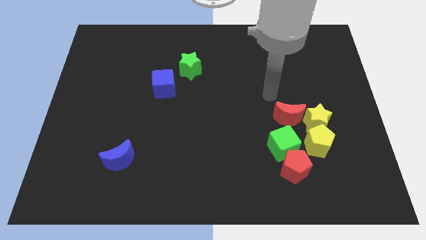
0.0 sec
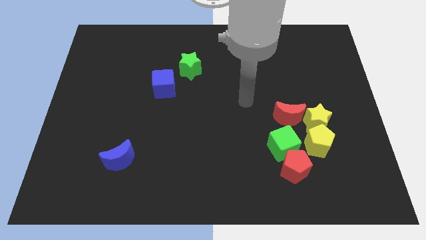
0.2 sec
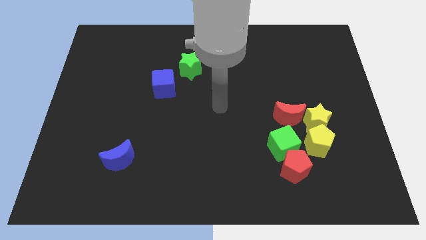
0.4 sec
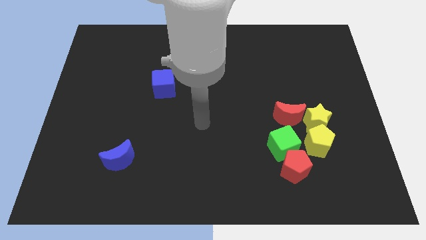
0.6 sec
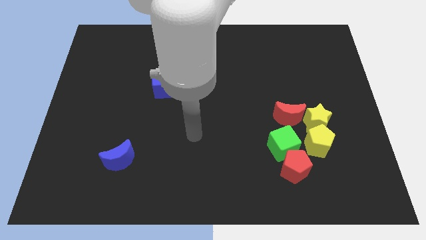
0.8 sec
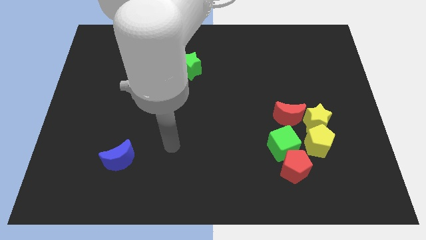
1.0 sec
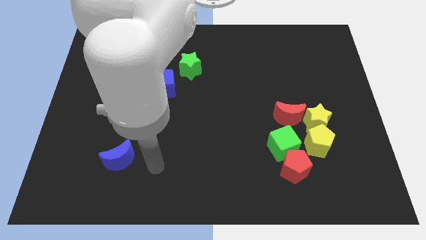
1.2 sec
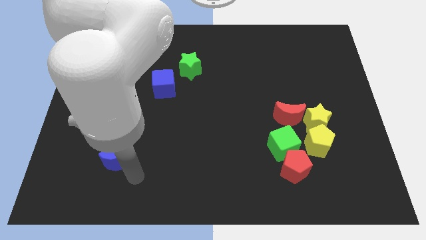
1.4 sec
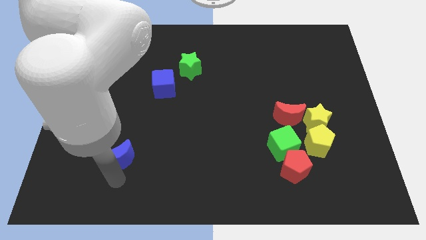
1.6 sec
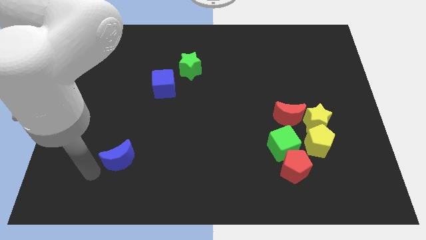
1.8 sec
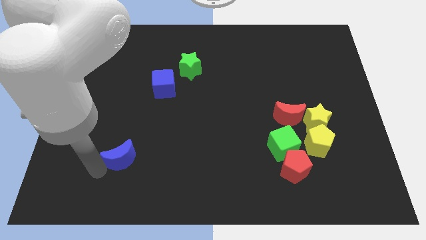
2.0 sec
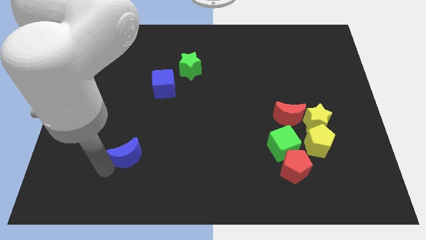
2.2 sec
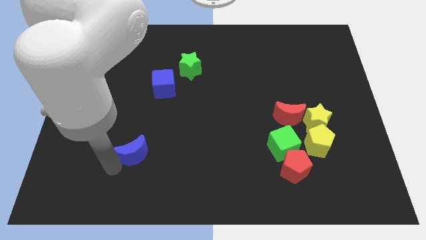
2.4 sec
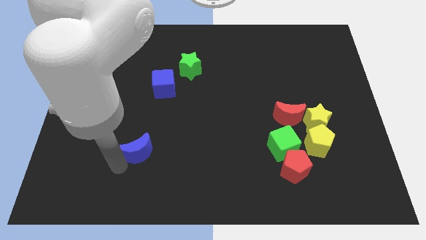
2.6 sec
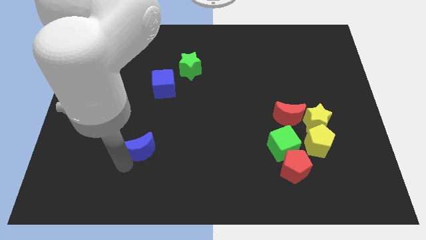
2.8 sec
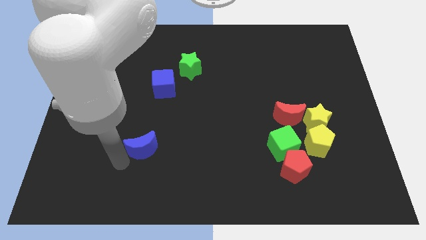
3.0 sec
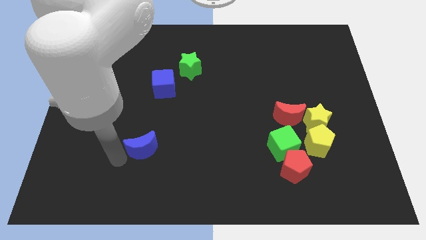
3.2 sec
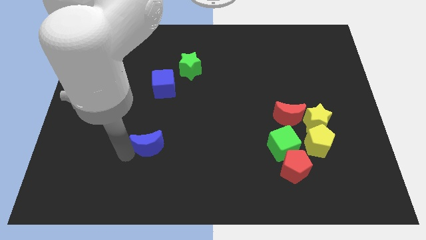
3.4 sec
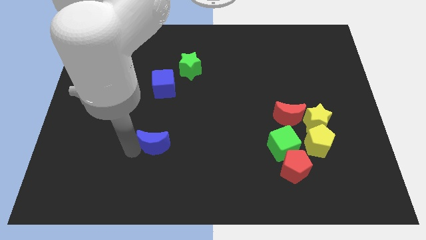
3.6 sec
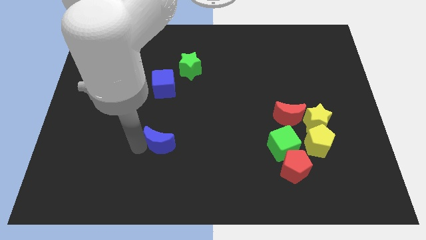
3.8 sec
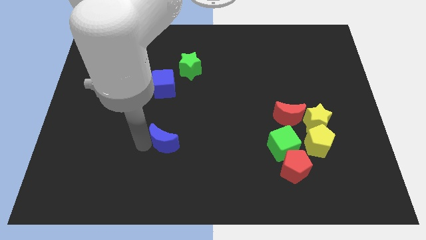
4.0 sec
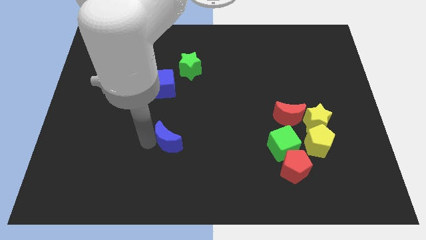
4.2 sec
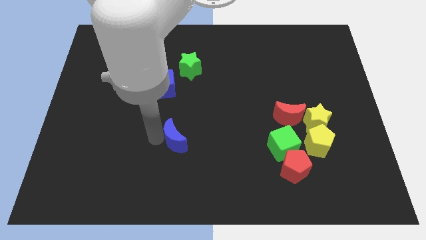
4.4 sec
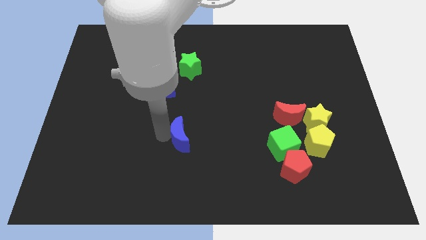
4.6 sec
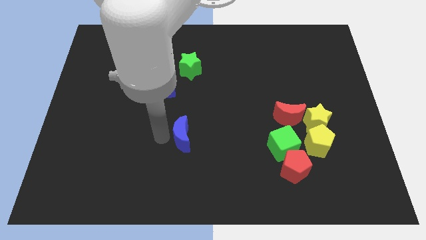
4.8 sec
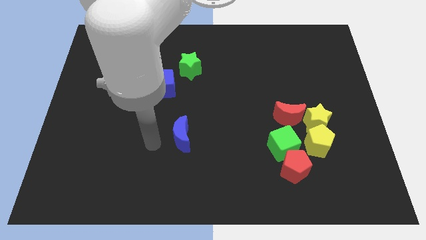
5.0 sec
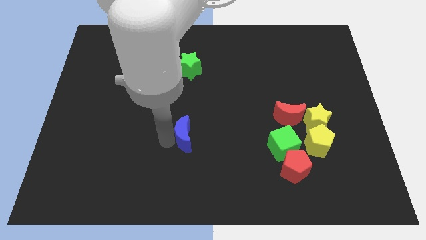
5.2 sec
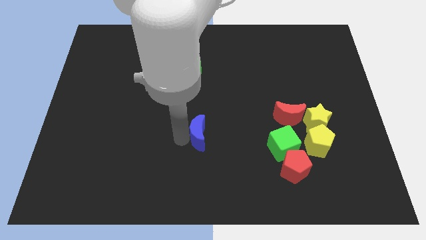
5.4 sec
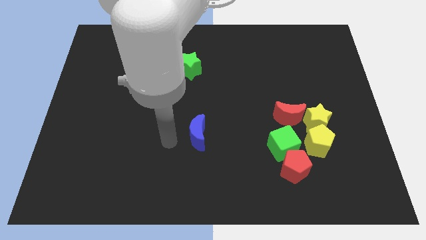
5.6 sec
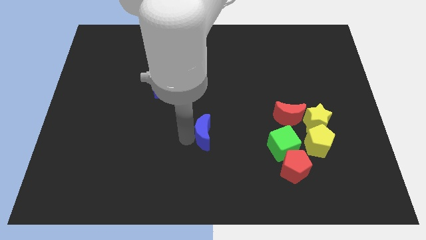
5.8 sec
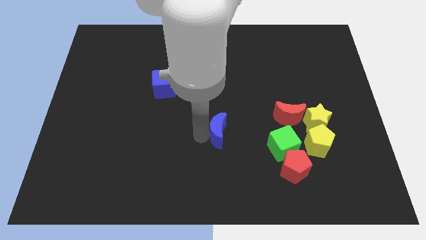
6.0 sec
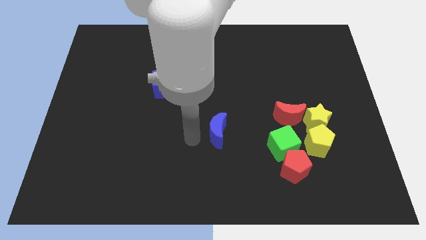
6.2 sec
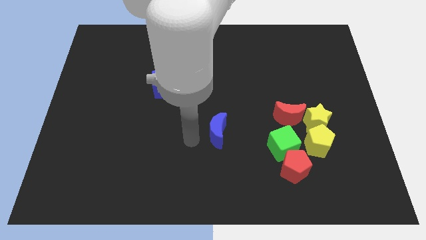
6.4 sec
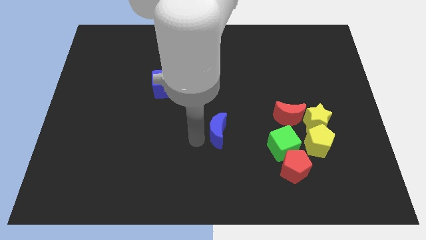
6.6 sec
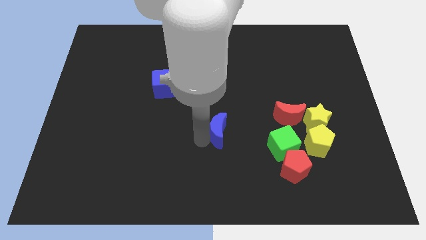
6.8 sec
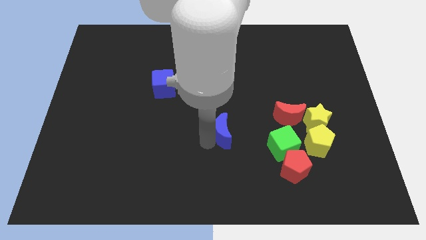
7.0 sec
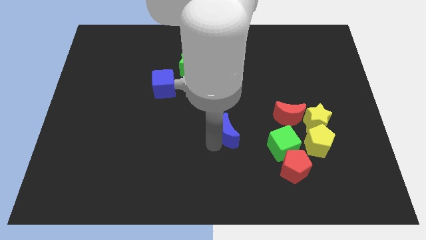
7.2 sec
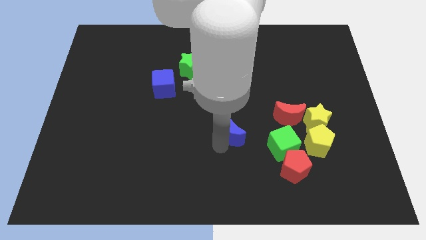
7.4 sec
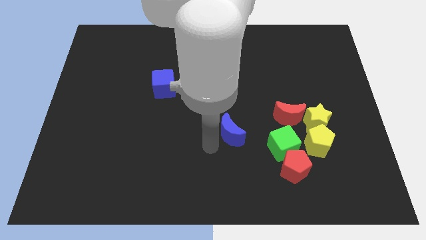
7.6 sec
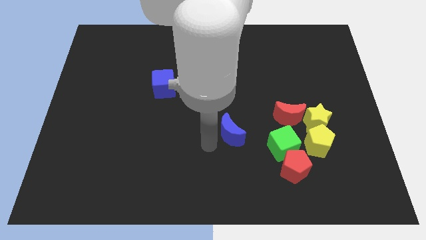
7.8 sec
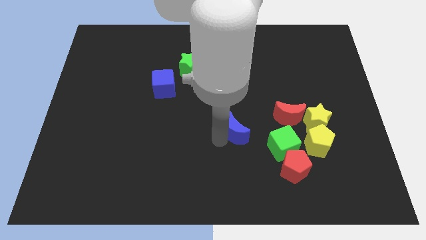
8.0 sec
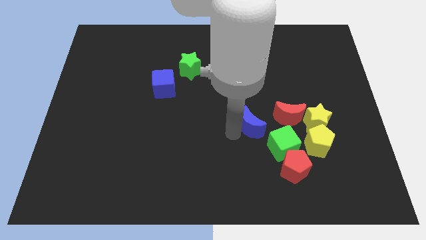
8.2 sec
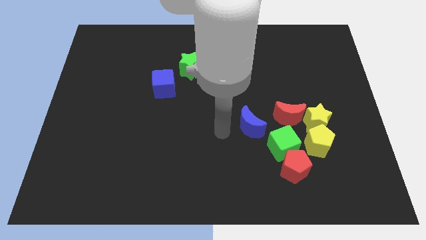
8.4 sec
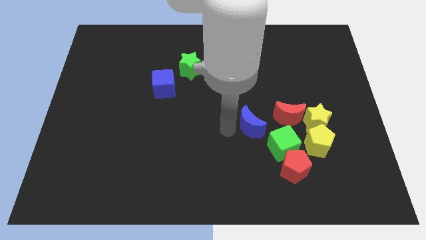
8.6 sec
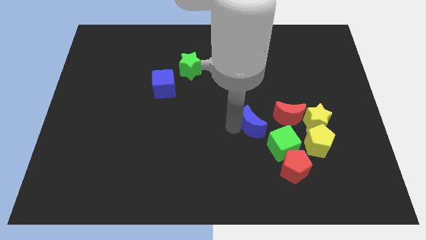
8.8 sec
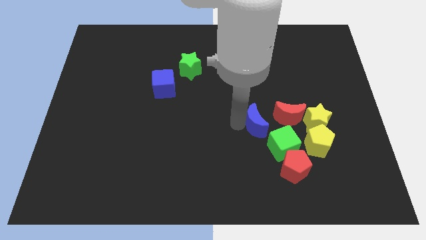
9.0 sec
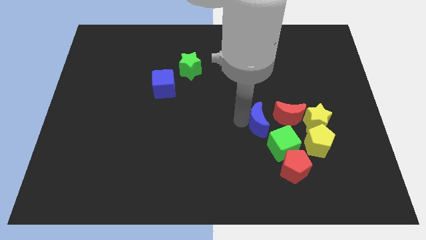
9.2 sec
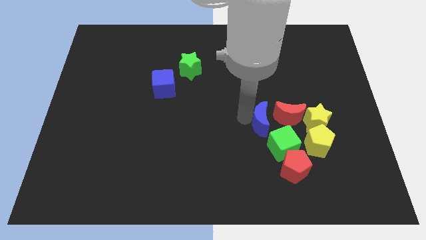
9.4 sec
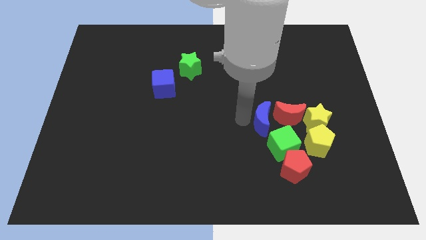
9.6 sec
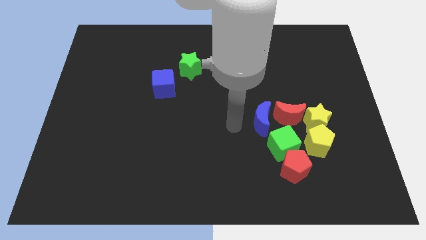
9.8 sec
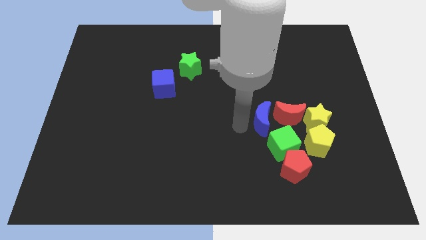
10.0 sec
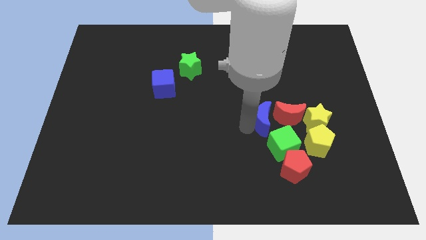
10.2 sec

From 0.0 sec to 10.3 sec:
push the blue moon next to the red moon

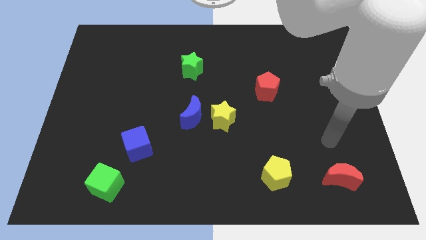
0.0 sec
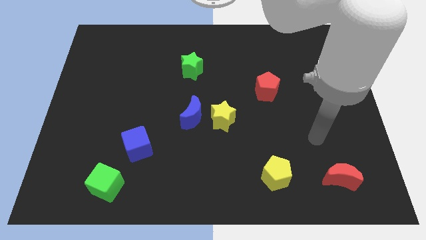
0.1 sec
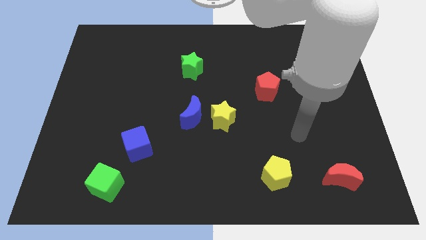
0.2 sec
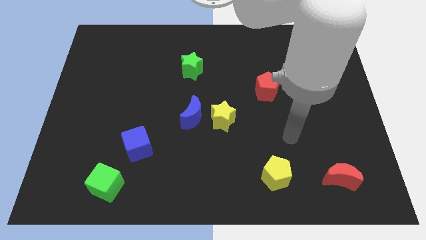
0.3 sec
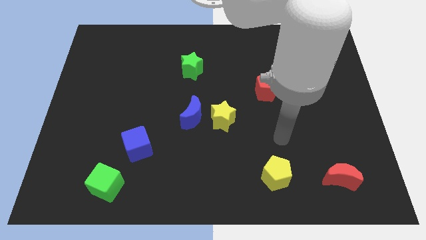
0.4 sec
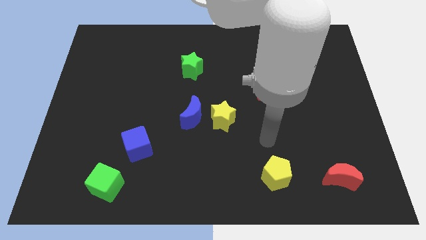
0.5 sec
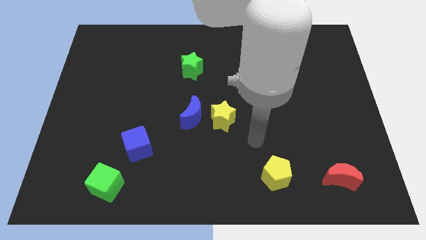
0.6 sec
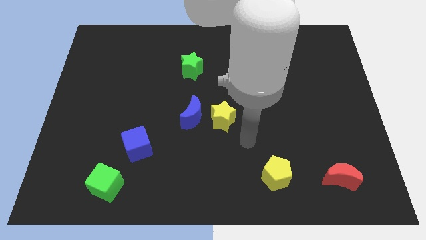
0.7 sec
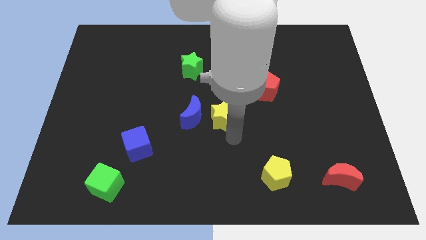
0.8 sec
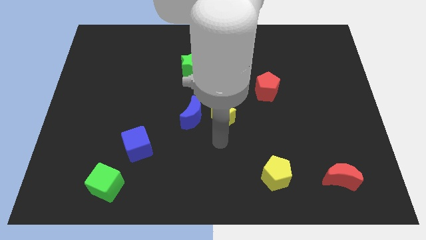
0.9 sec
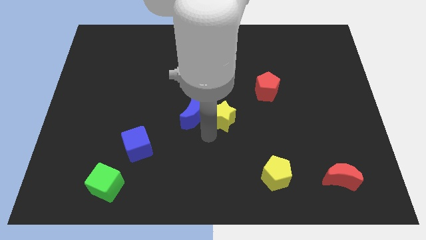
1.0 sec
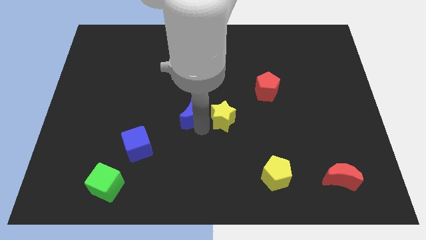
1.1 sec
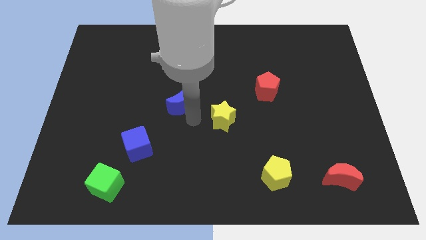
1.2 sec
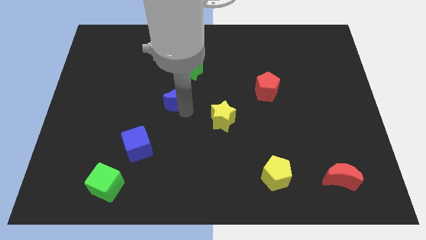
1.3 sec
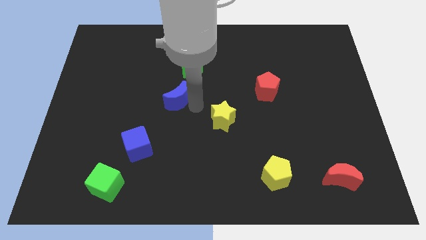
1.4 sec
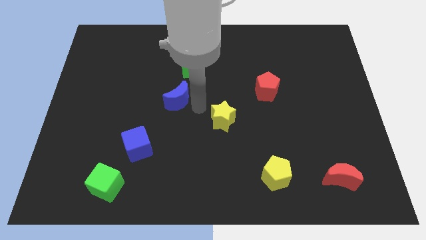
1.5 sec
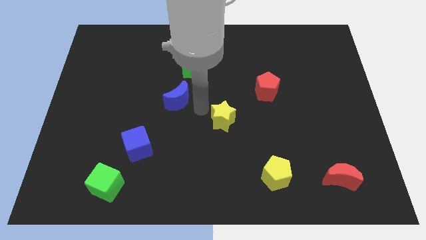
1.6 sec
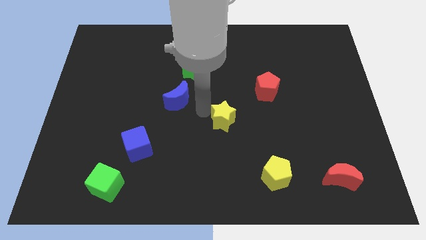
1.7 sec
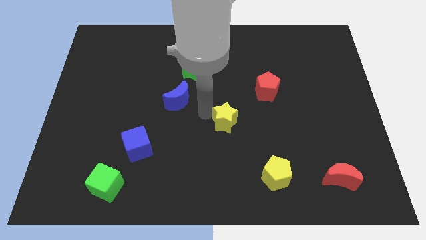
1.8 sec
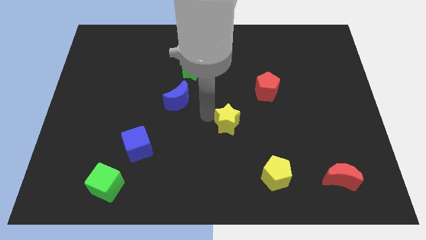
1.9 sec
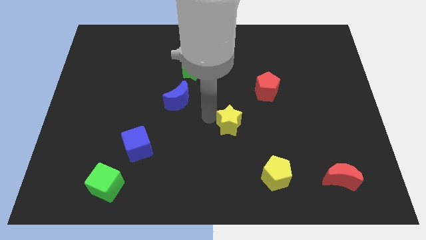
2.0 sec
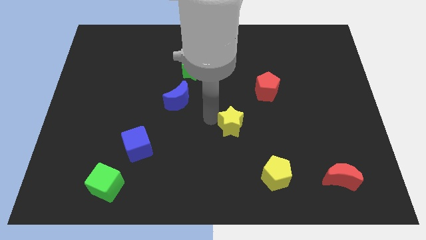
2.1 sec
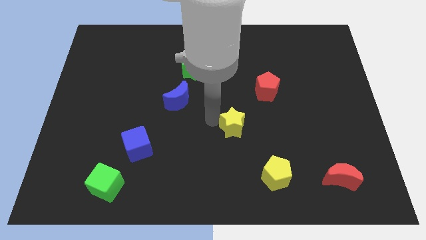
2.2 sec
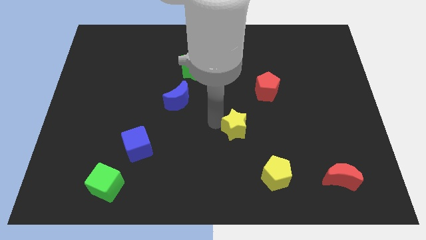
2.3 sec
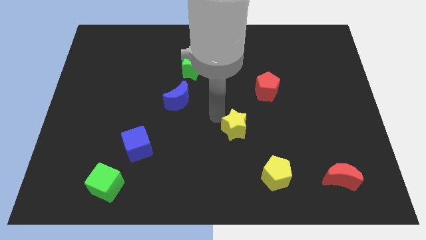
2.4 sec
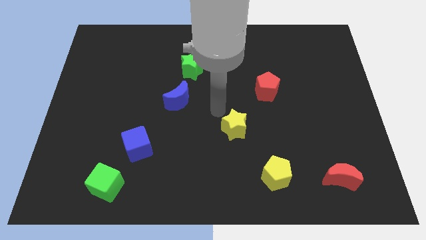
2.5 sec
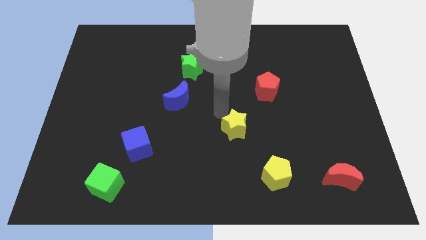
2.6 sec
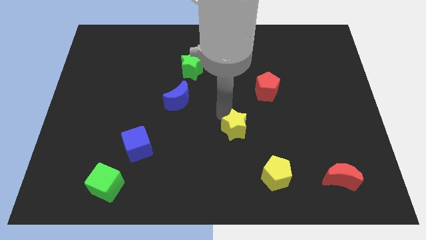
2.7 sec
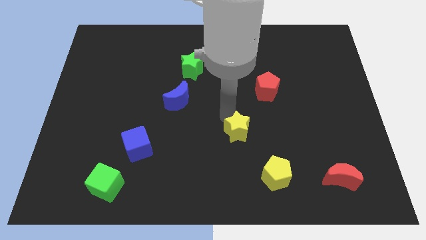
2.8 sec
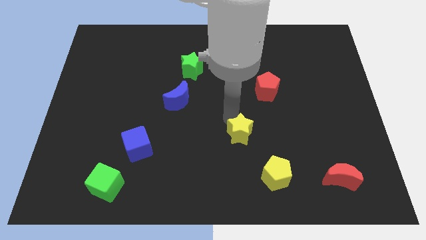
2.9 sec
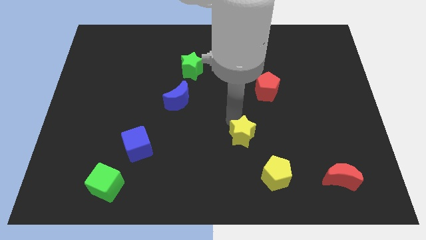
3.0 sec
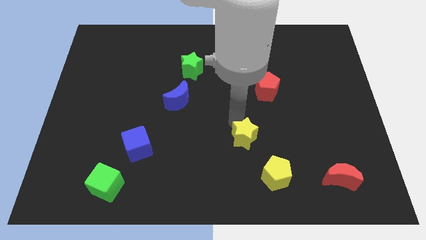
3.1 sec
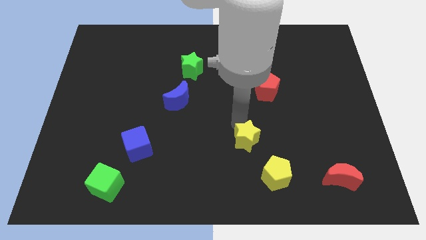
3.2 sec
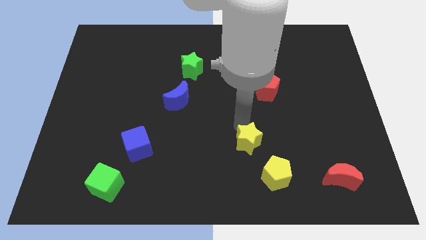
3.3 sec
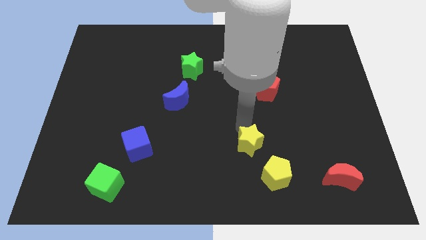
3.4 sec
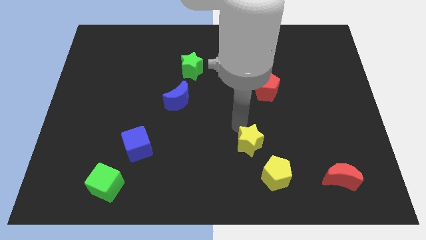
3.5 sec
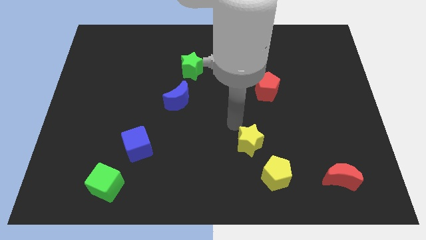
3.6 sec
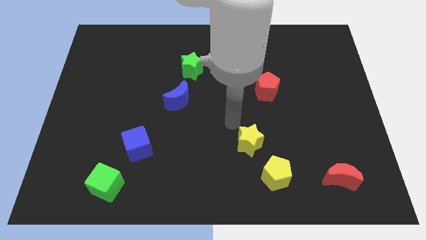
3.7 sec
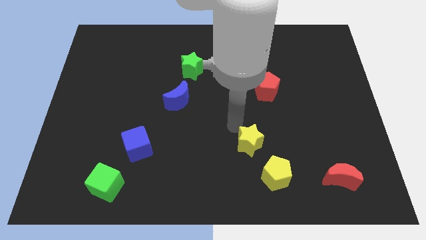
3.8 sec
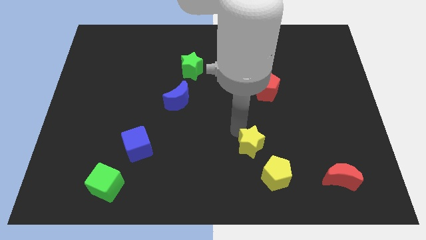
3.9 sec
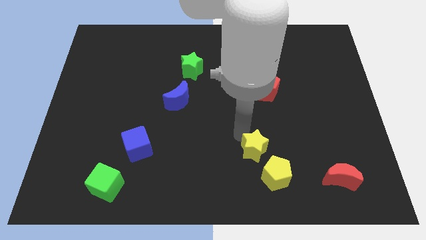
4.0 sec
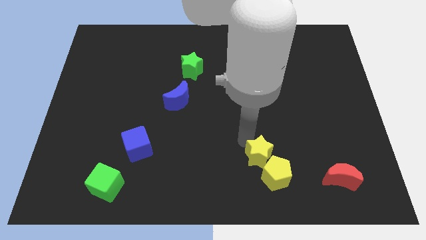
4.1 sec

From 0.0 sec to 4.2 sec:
slide the yellow star to the yellow pentagon
